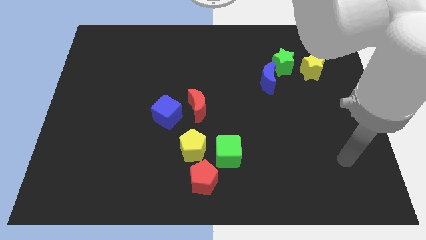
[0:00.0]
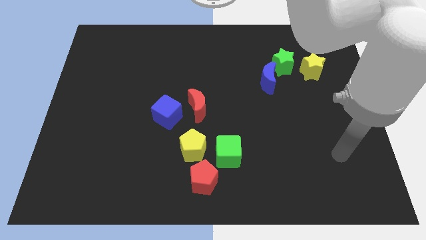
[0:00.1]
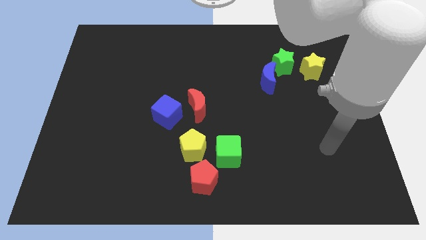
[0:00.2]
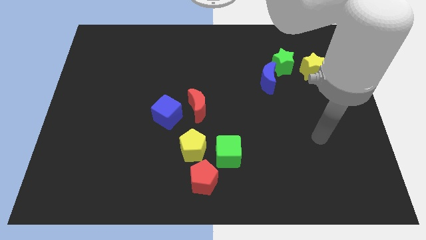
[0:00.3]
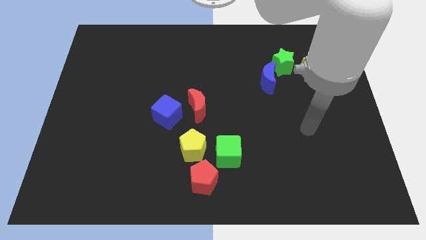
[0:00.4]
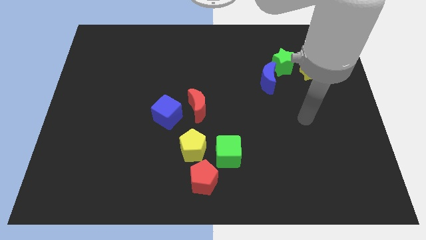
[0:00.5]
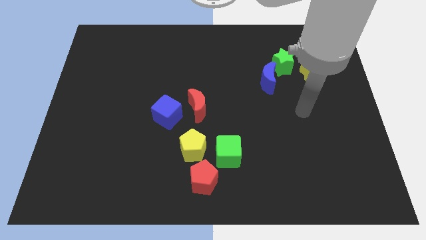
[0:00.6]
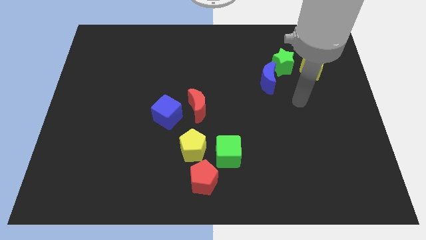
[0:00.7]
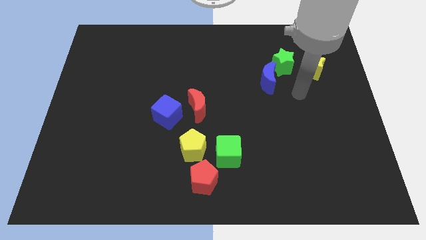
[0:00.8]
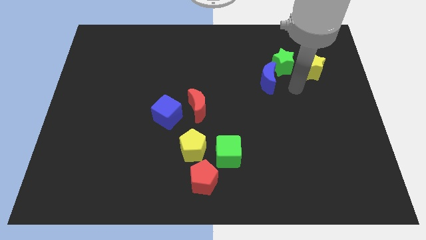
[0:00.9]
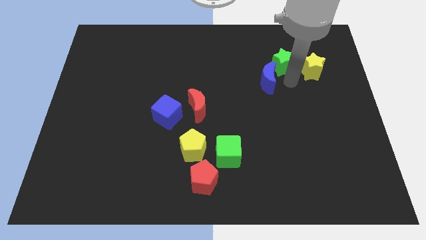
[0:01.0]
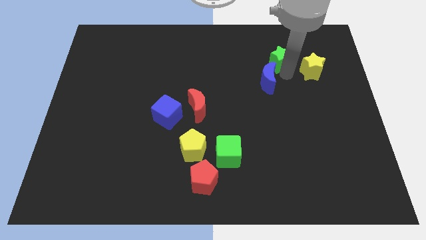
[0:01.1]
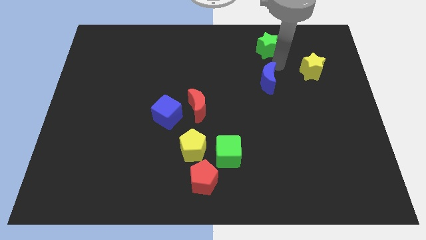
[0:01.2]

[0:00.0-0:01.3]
move the blue moon away from the green star

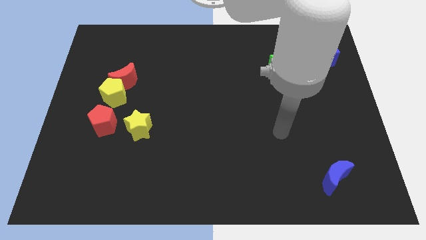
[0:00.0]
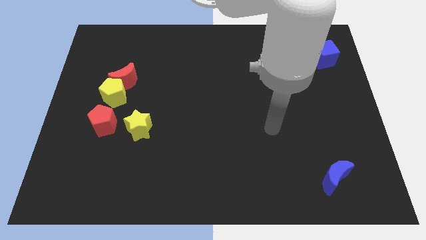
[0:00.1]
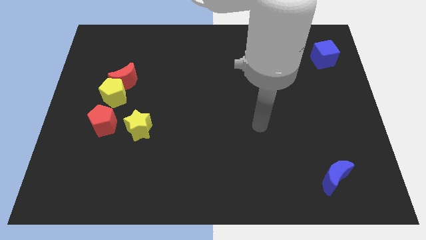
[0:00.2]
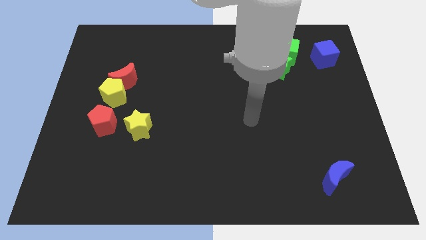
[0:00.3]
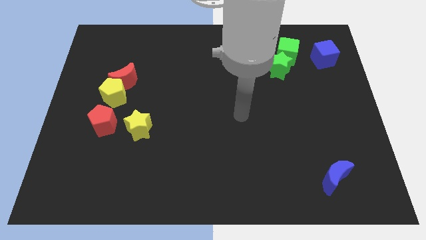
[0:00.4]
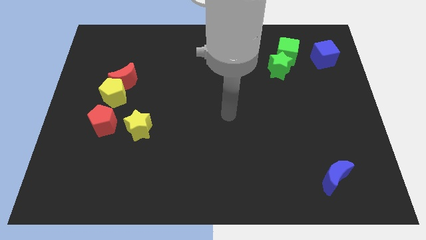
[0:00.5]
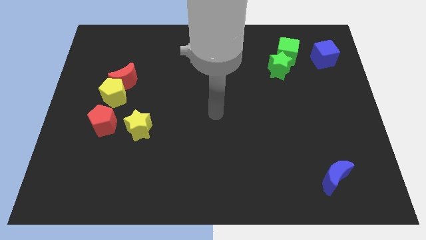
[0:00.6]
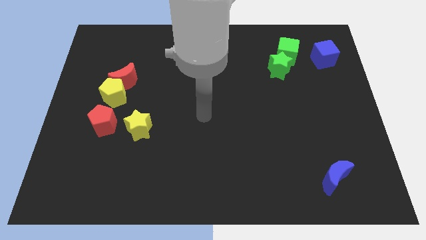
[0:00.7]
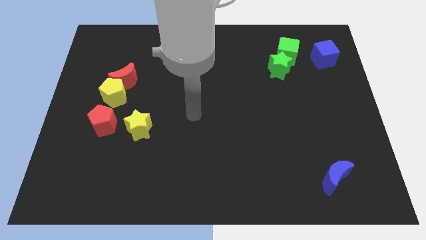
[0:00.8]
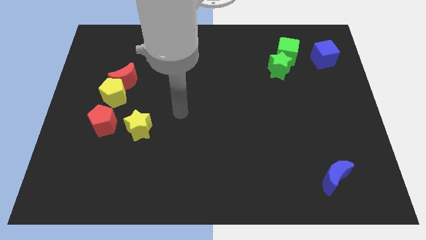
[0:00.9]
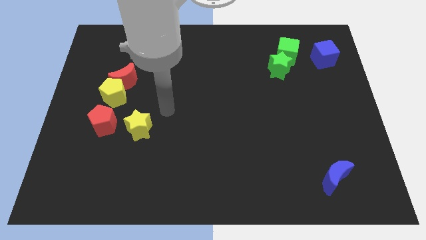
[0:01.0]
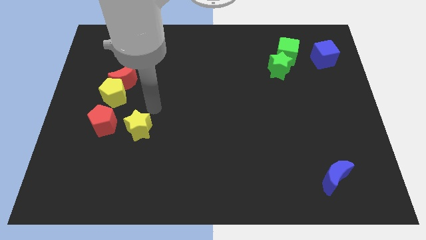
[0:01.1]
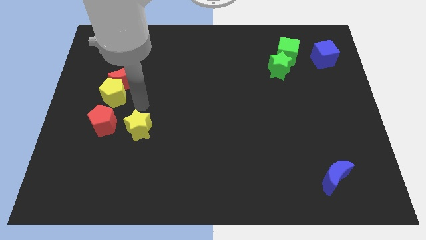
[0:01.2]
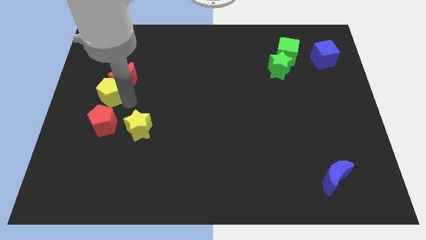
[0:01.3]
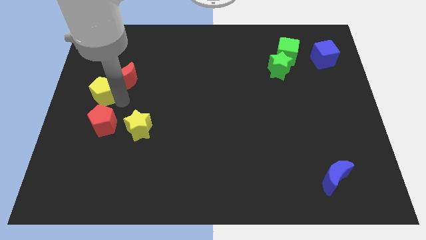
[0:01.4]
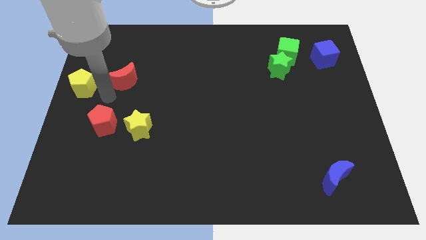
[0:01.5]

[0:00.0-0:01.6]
pull the red moon apart from the yellow pentagon

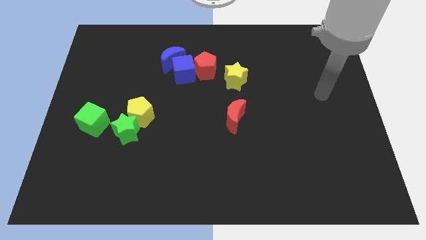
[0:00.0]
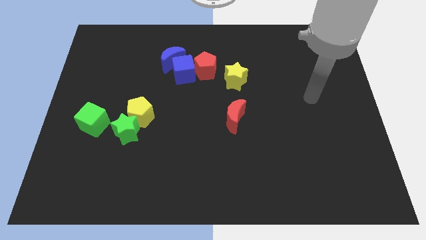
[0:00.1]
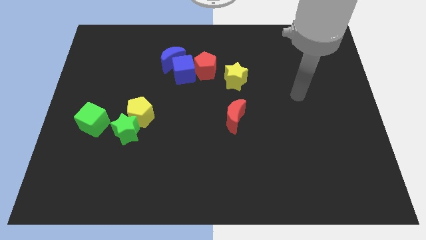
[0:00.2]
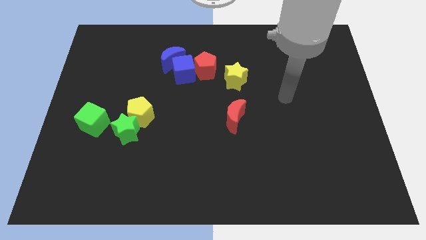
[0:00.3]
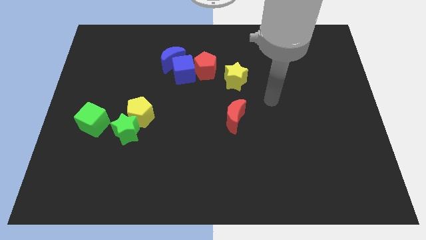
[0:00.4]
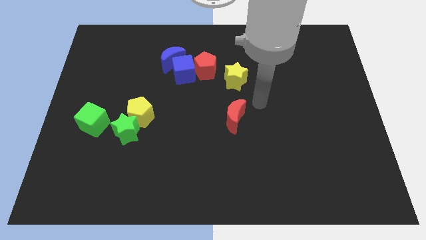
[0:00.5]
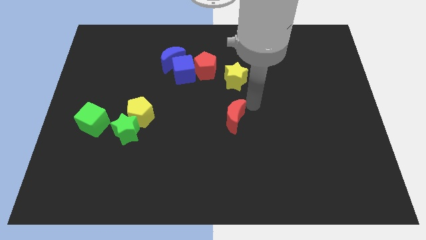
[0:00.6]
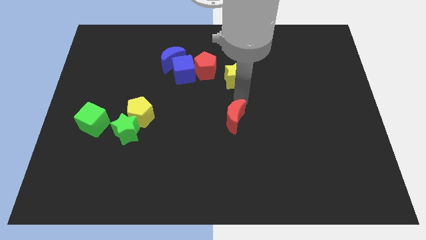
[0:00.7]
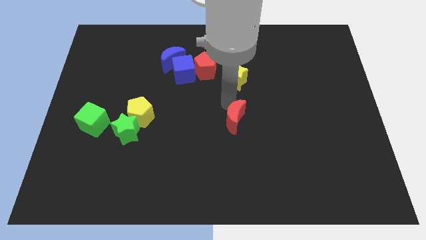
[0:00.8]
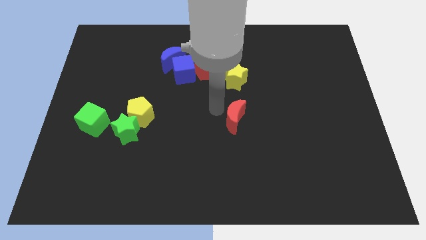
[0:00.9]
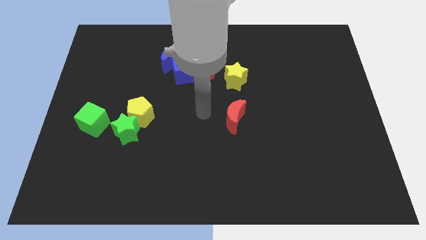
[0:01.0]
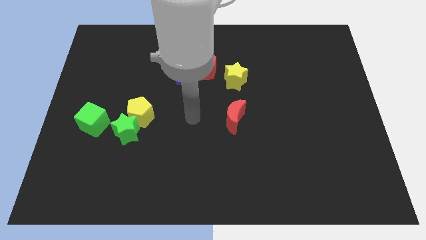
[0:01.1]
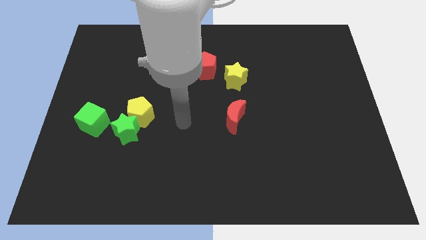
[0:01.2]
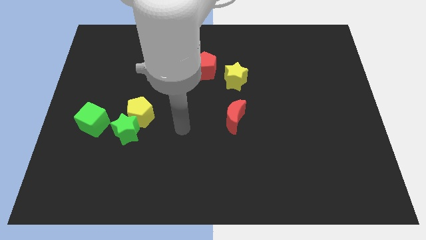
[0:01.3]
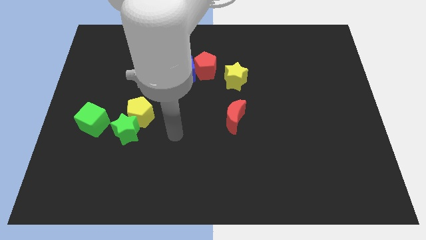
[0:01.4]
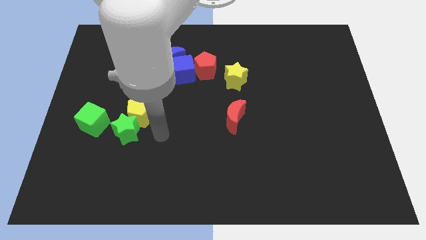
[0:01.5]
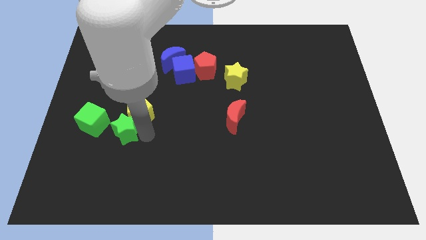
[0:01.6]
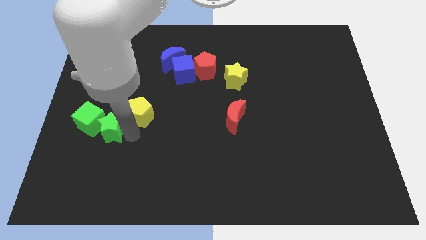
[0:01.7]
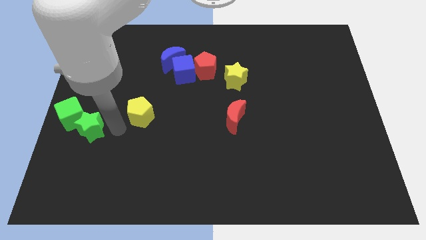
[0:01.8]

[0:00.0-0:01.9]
pull the yellow pentagon apart from the green star

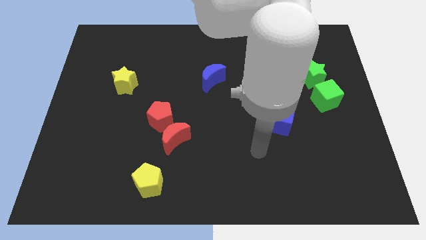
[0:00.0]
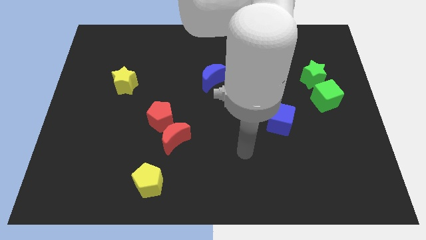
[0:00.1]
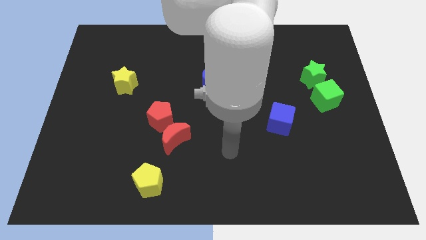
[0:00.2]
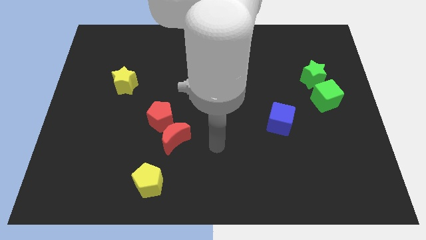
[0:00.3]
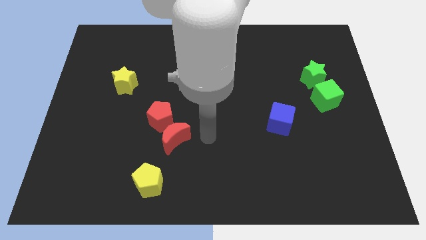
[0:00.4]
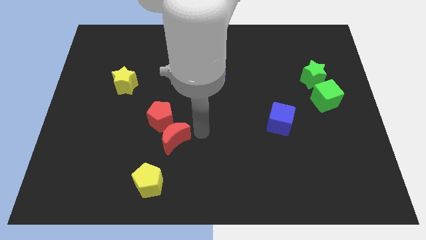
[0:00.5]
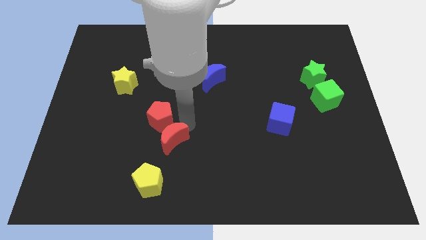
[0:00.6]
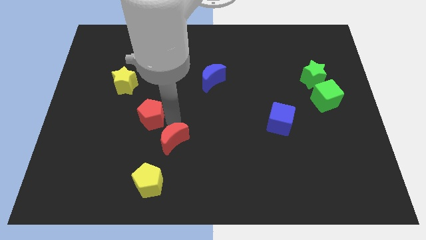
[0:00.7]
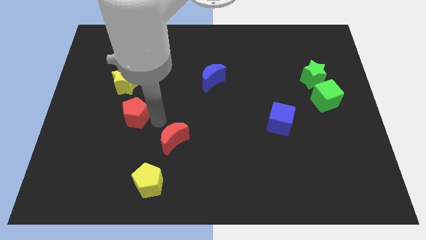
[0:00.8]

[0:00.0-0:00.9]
separate the red moon from the red pentagon

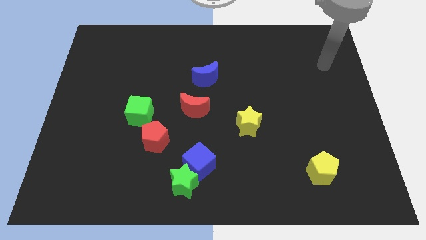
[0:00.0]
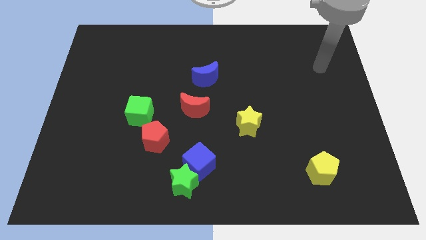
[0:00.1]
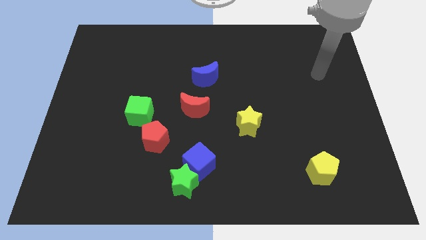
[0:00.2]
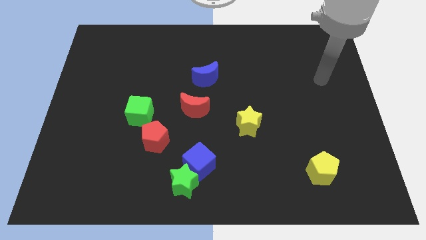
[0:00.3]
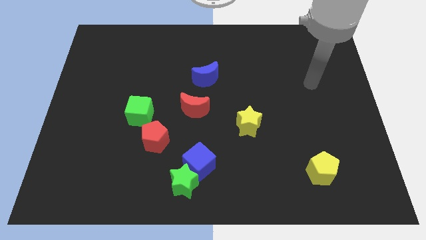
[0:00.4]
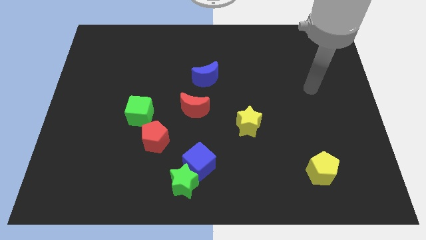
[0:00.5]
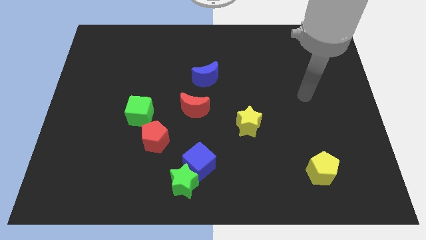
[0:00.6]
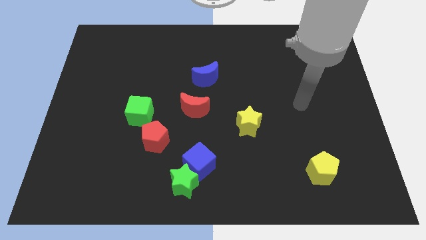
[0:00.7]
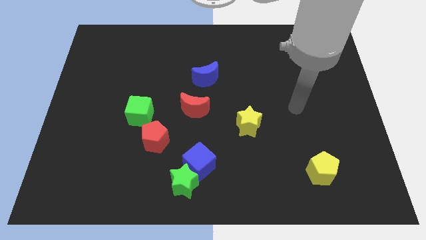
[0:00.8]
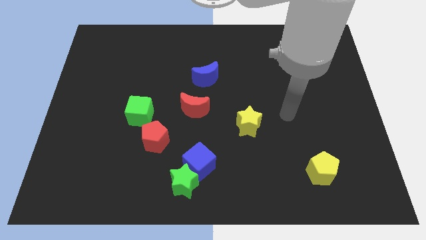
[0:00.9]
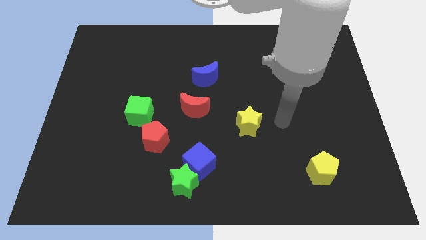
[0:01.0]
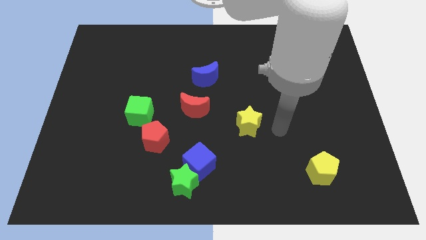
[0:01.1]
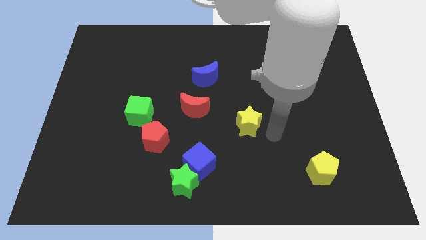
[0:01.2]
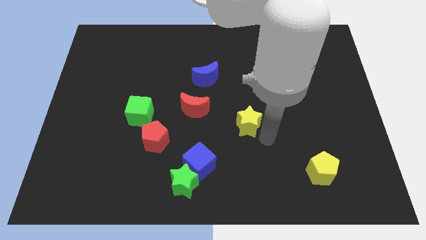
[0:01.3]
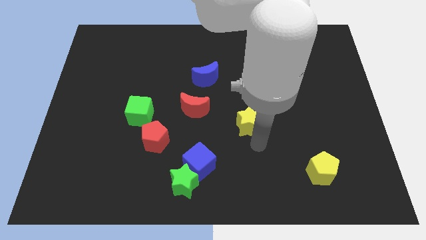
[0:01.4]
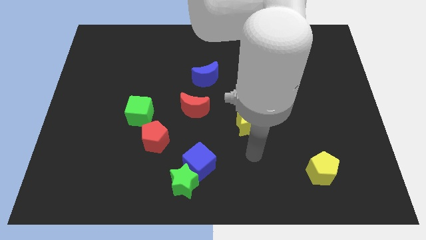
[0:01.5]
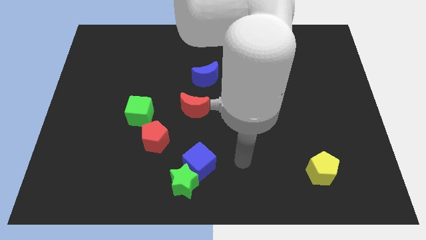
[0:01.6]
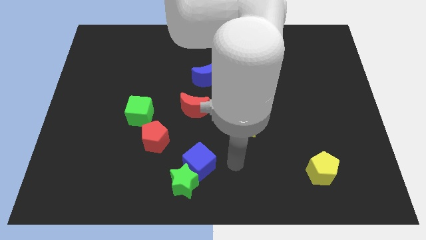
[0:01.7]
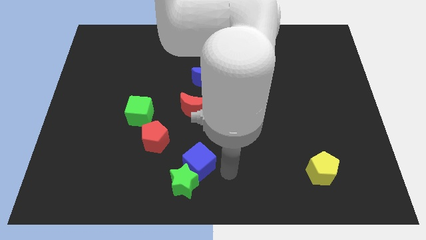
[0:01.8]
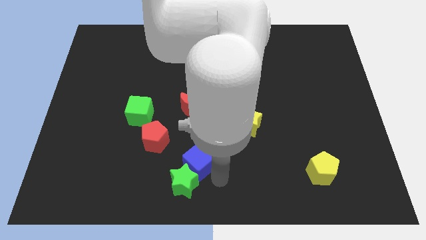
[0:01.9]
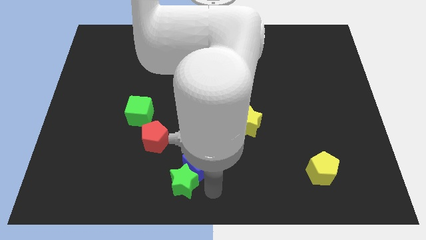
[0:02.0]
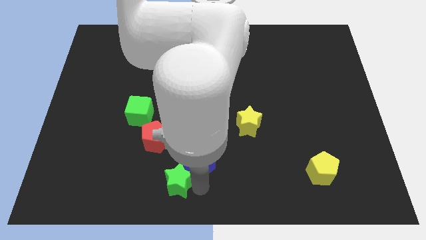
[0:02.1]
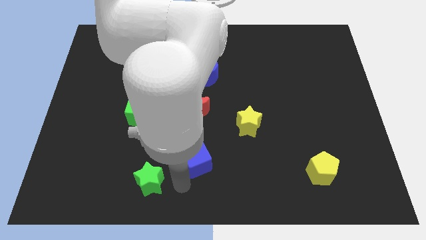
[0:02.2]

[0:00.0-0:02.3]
move the blue cube away from the green star

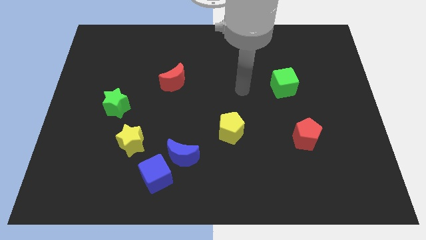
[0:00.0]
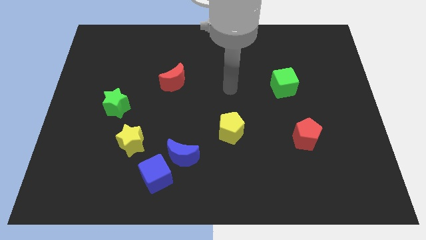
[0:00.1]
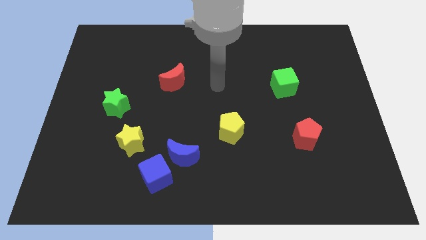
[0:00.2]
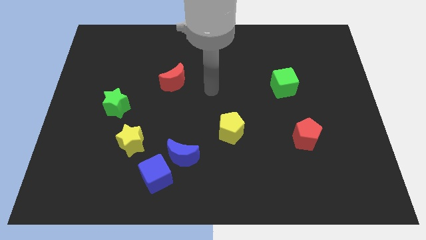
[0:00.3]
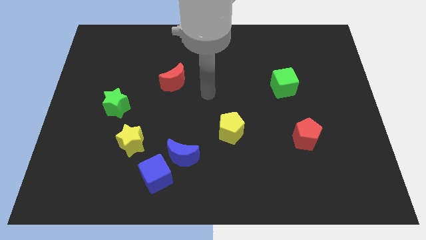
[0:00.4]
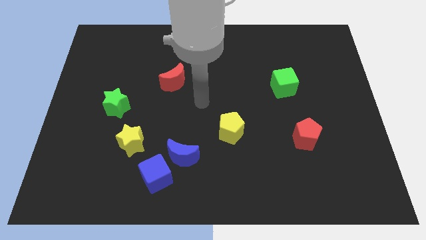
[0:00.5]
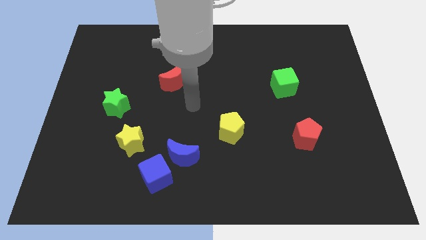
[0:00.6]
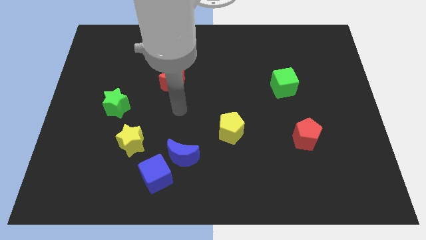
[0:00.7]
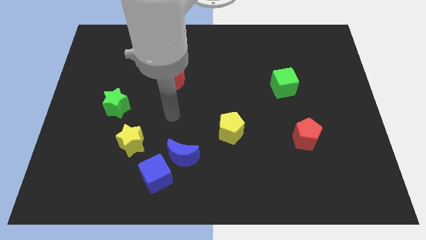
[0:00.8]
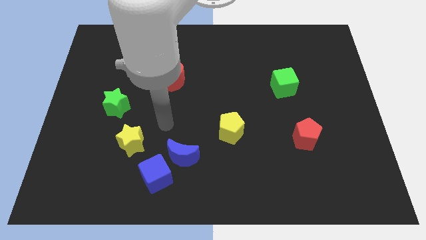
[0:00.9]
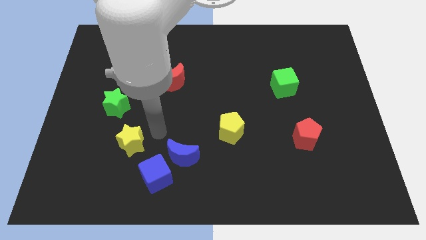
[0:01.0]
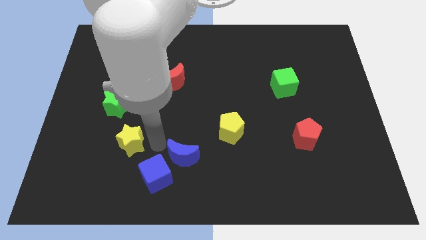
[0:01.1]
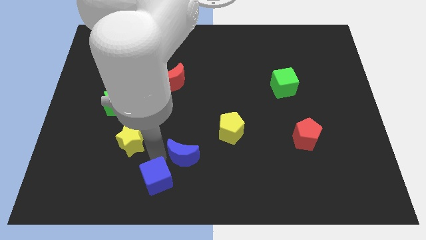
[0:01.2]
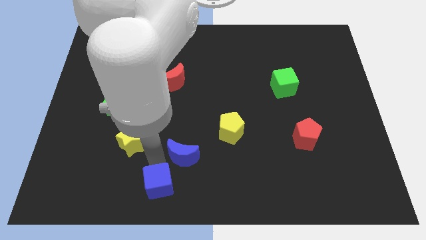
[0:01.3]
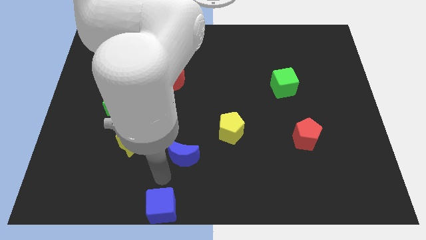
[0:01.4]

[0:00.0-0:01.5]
separate the blue moon from the blue cube
